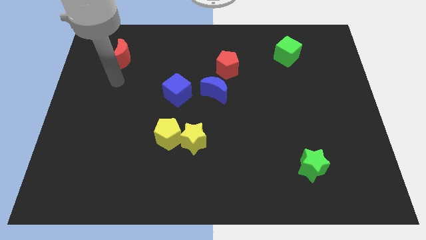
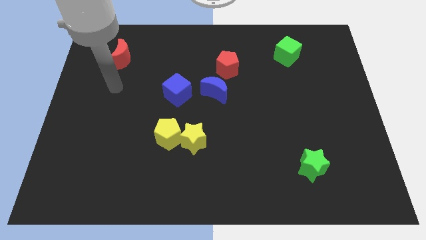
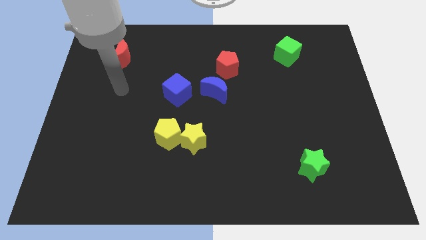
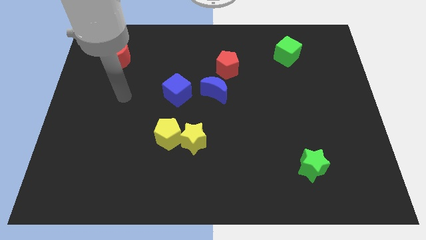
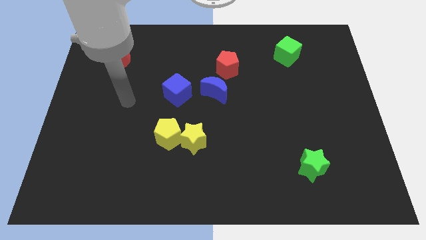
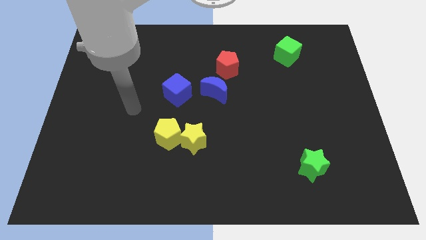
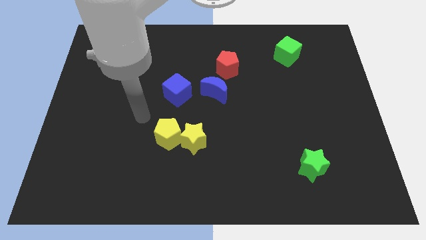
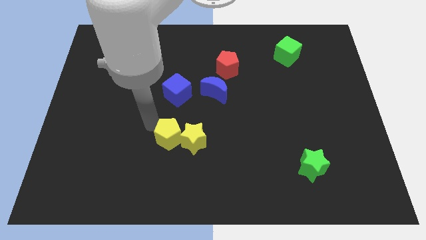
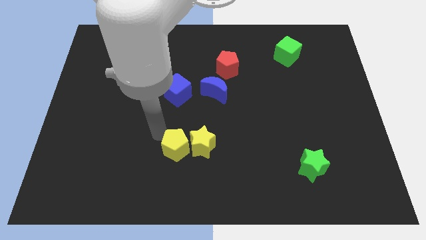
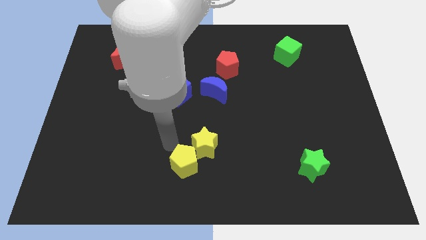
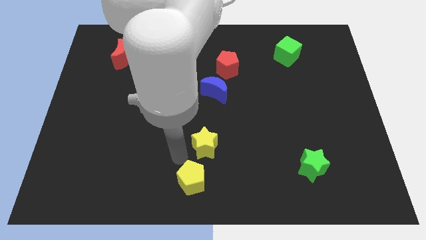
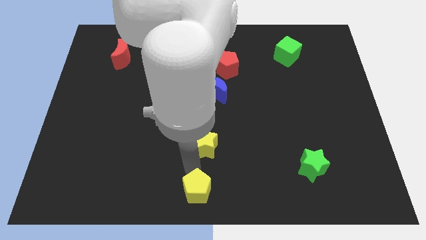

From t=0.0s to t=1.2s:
separate the yellow star from the yellow pentagon

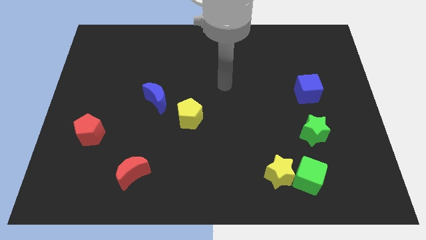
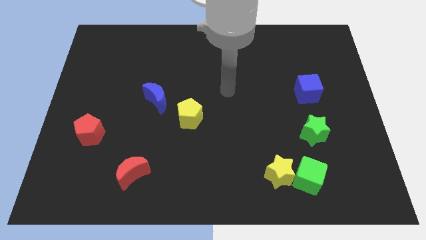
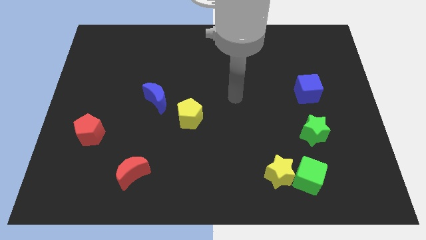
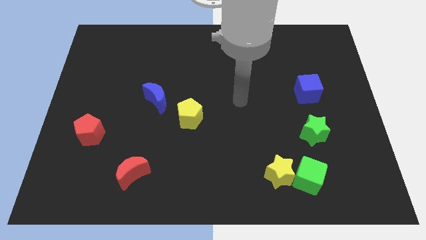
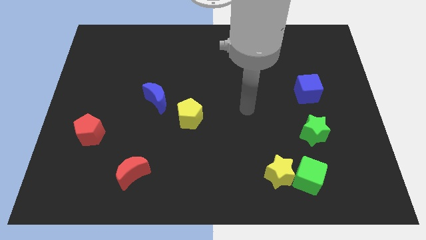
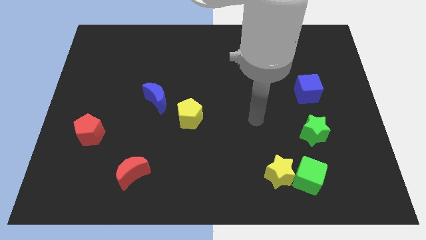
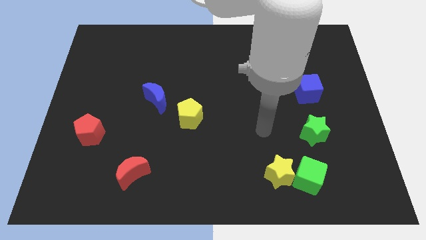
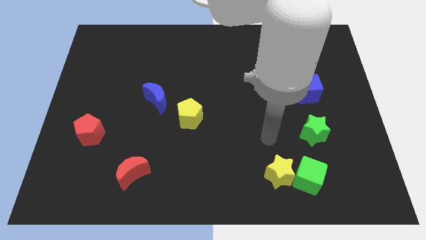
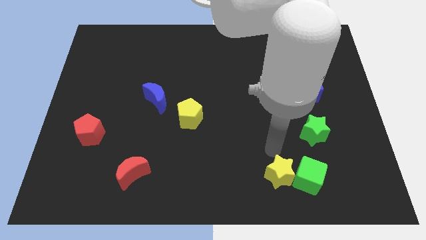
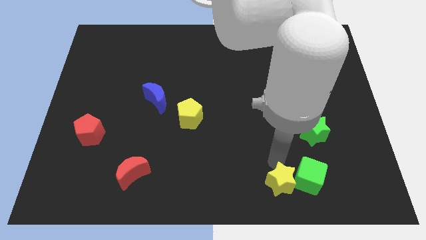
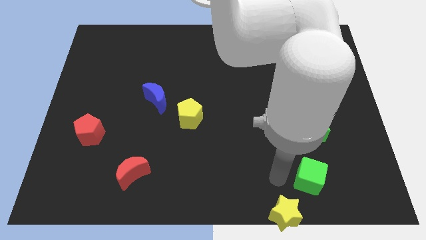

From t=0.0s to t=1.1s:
separate the green cube from the yellow star

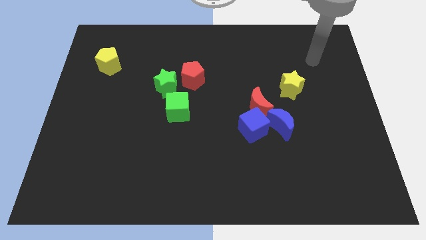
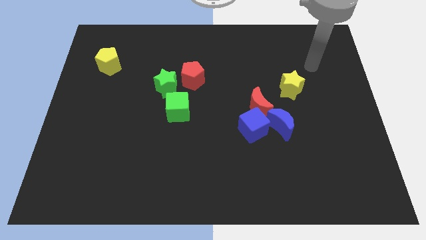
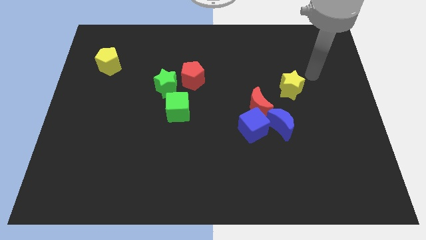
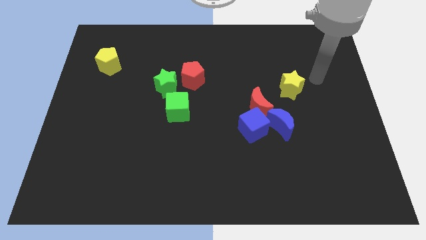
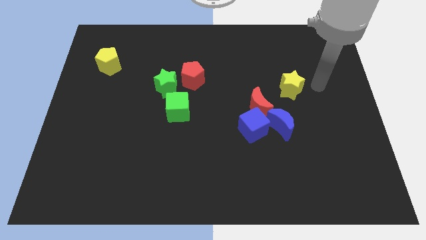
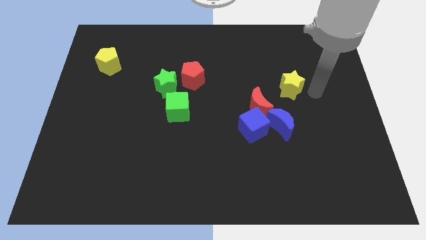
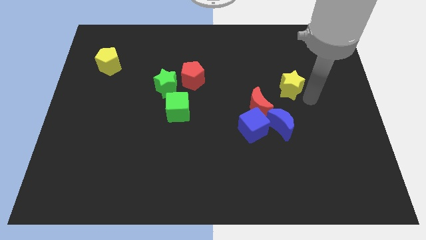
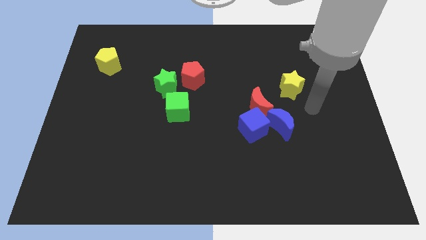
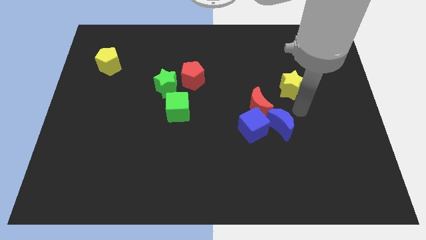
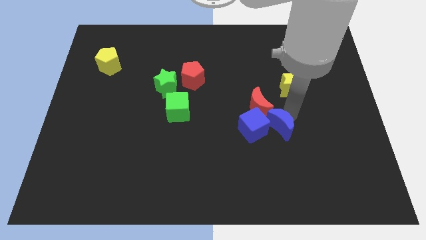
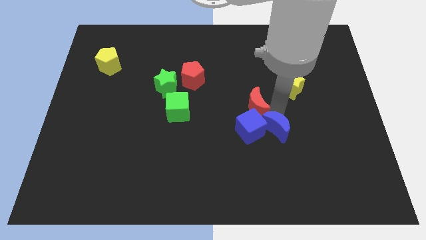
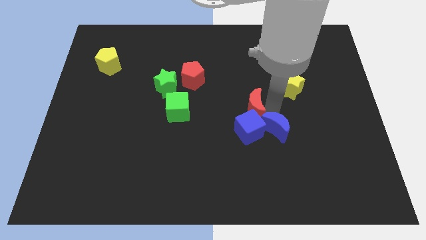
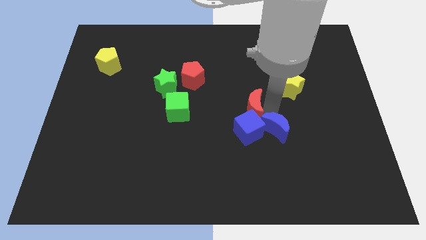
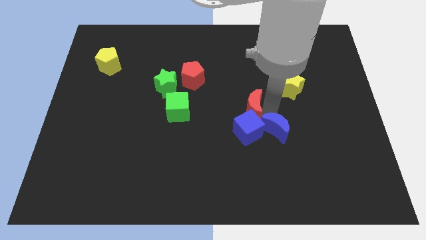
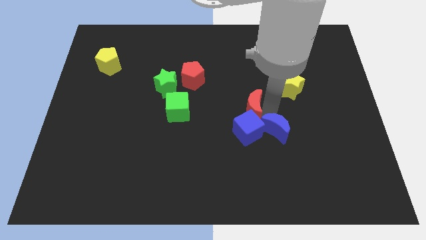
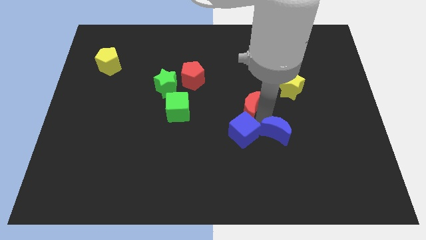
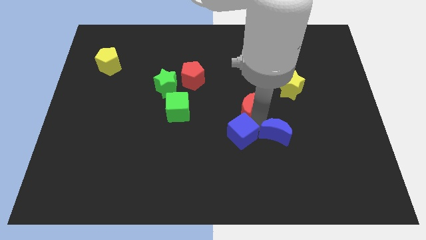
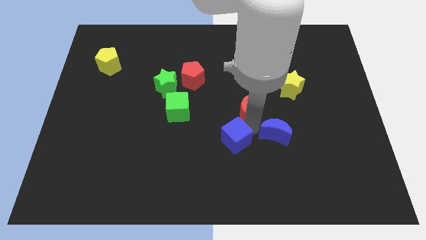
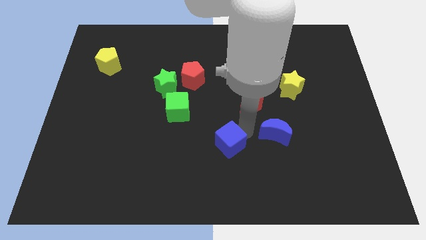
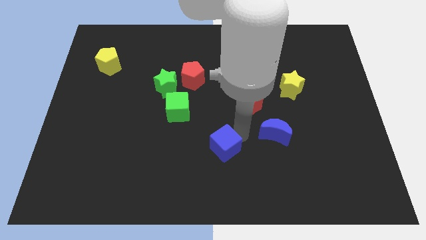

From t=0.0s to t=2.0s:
move the blue cube away from the red moon and blue moon

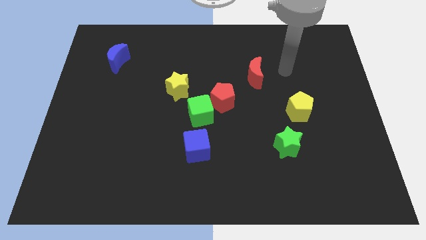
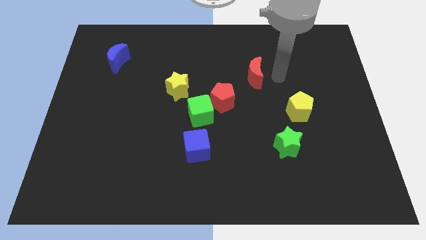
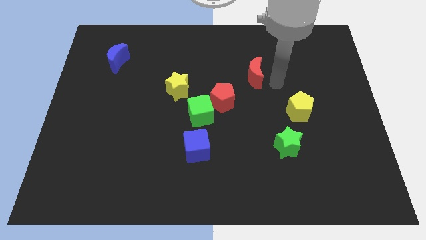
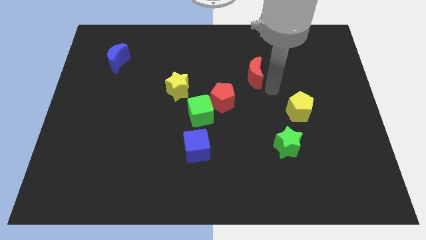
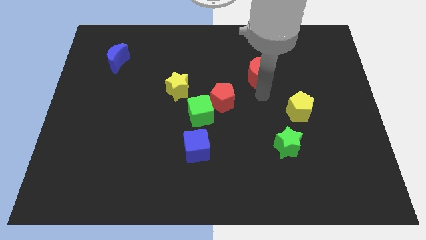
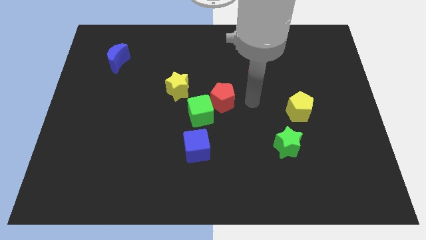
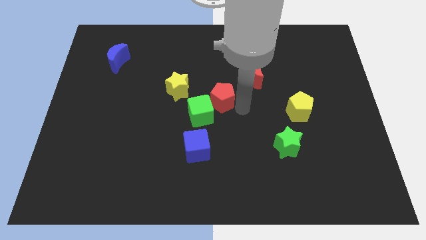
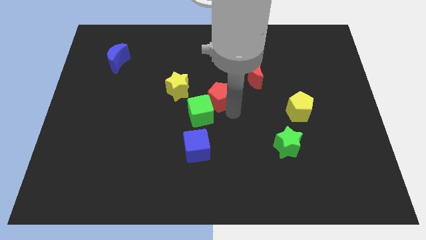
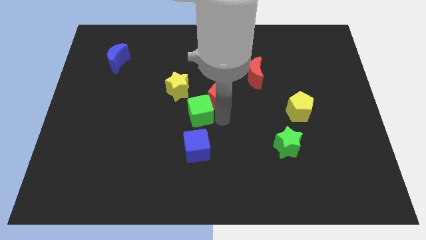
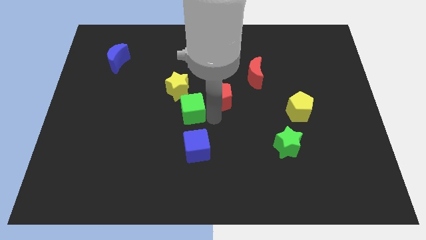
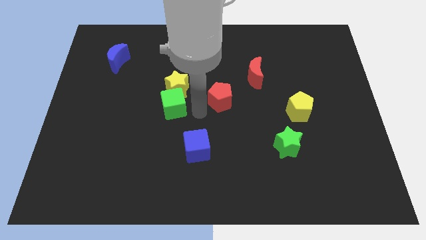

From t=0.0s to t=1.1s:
move the red pentagon away from the green cube

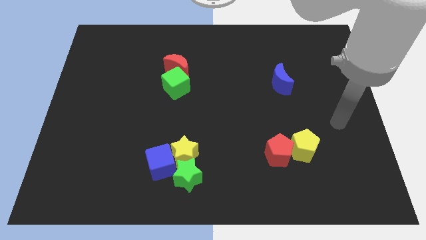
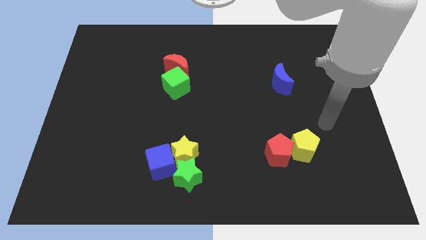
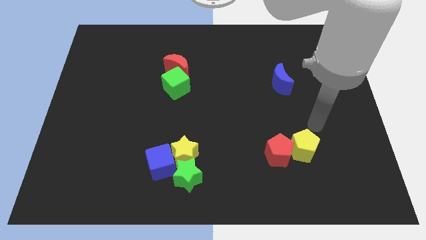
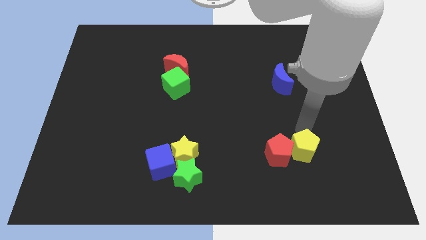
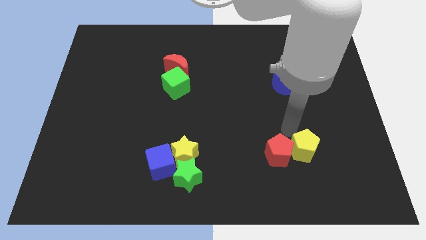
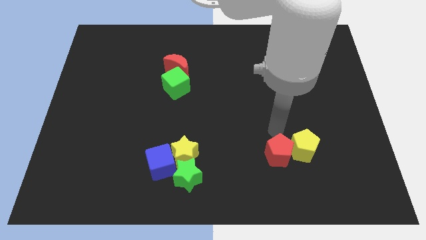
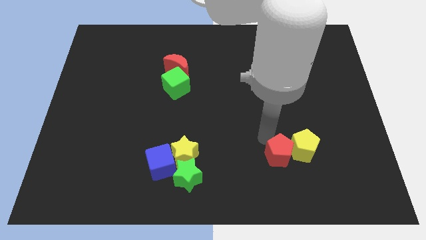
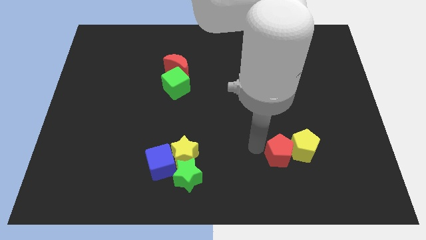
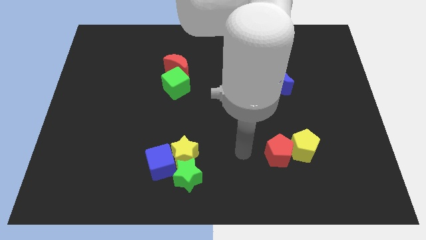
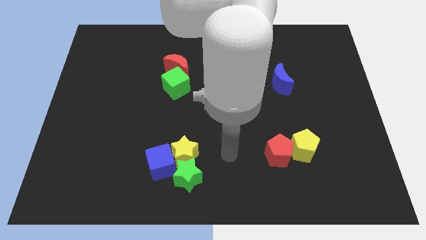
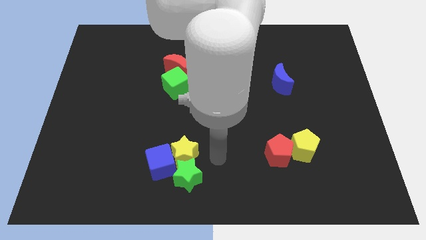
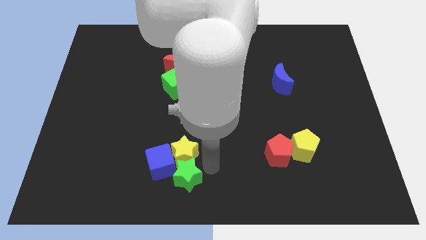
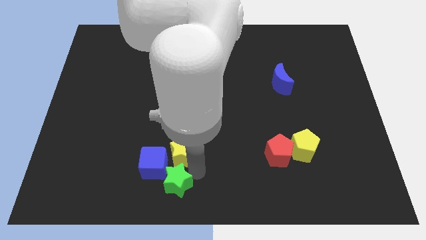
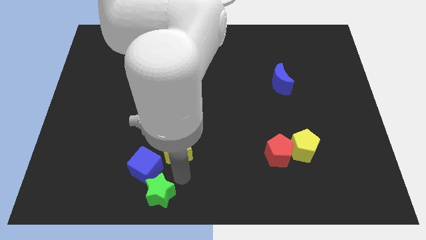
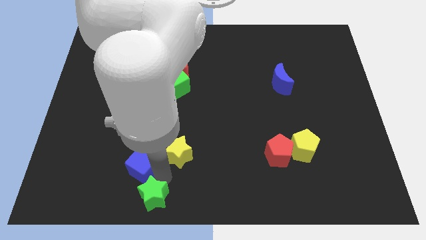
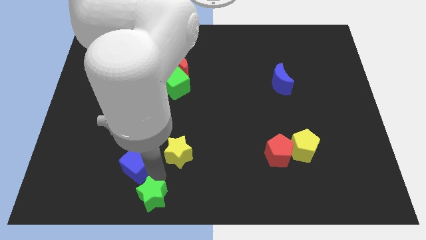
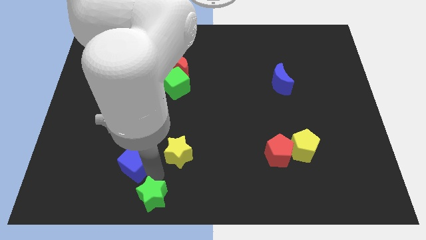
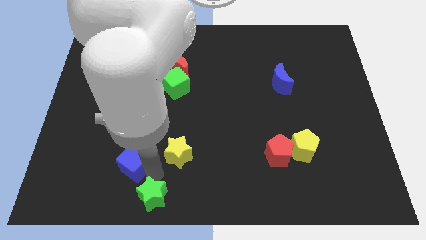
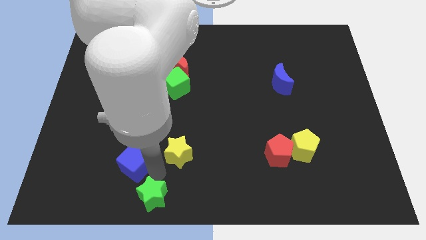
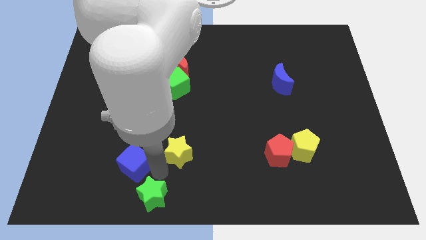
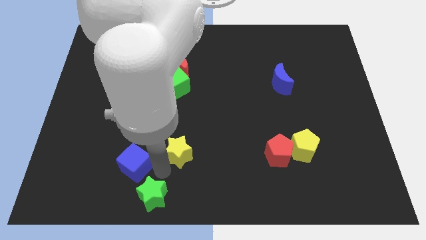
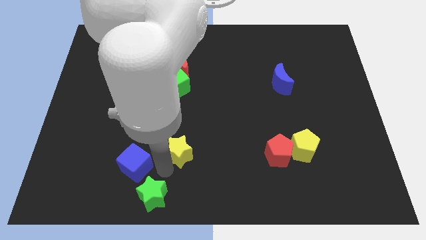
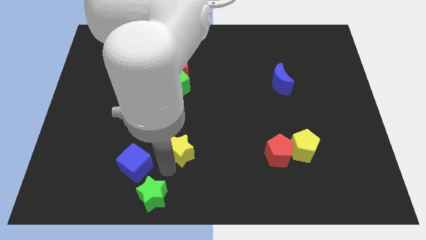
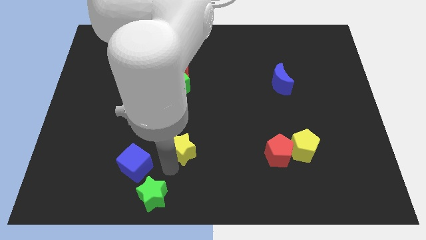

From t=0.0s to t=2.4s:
separate the yellow star from the green star and blue cube

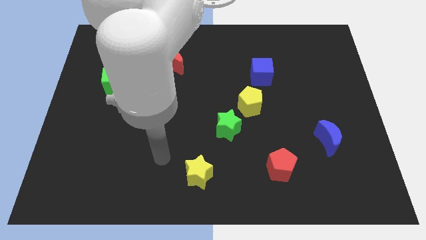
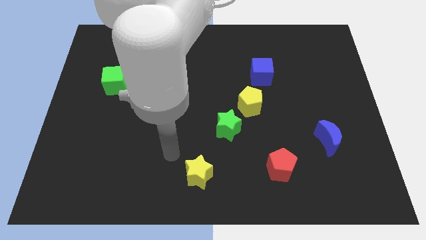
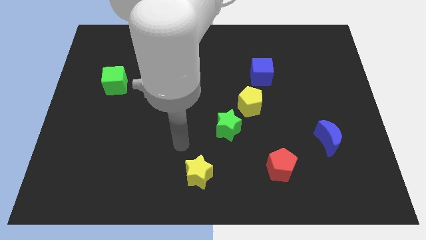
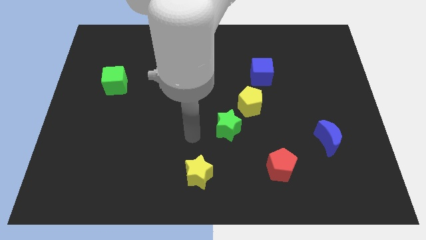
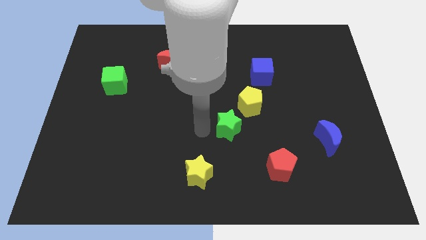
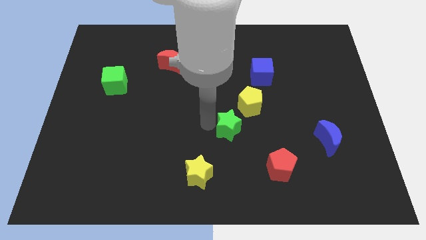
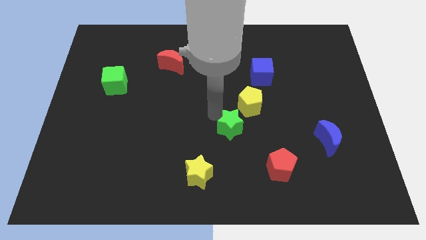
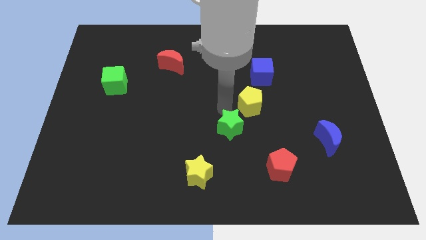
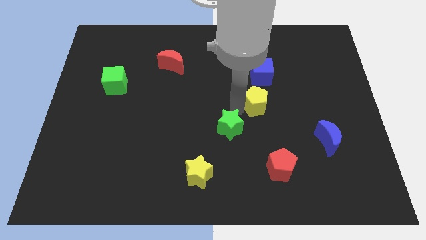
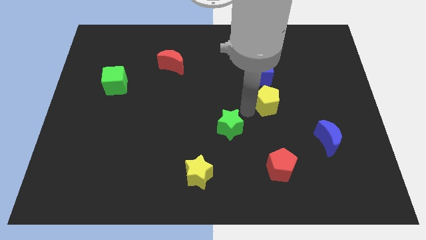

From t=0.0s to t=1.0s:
separate the green star from the yellow pentagon

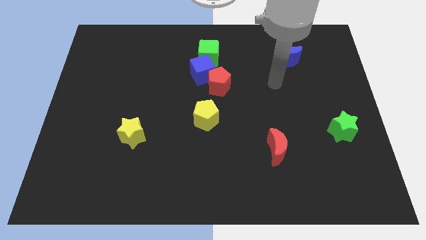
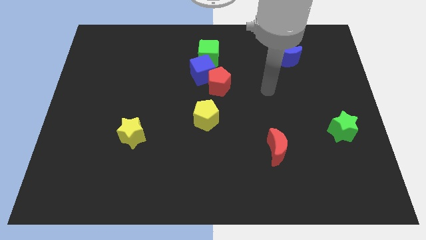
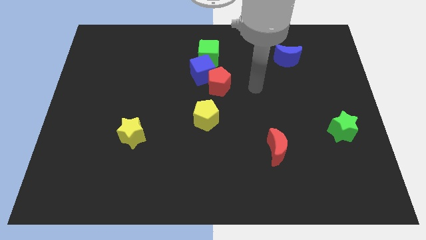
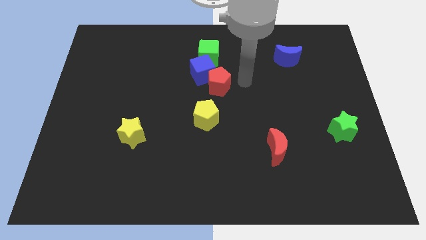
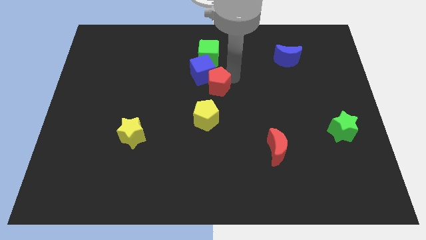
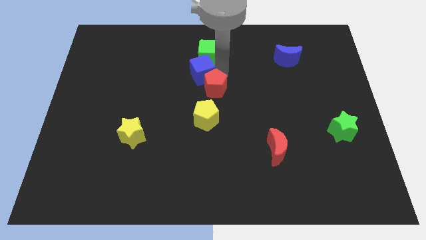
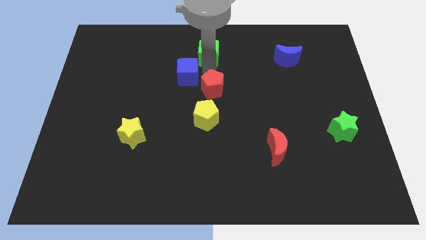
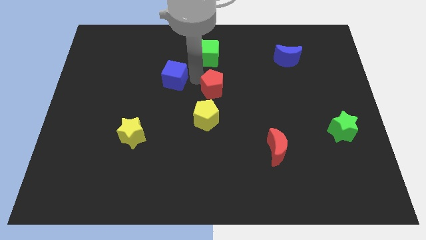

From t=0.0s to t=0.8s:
move the red pentagon away from the blue cube
